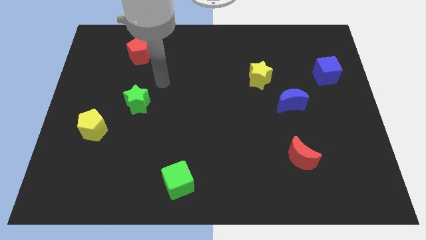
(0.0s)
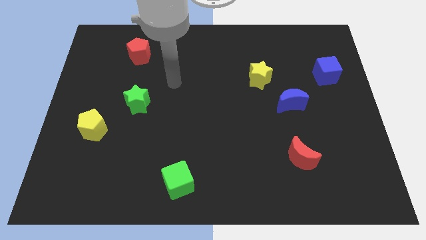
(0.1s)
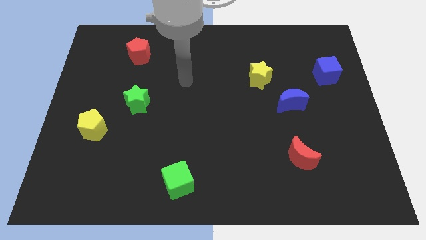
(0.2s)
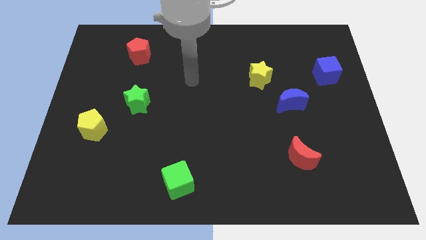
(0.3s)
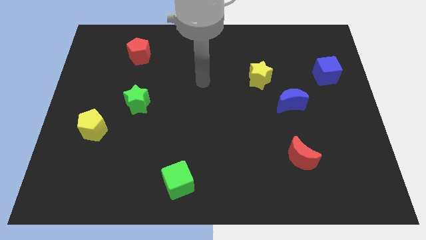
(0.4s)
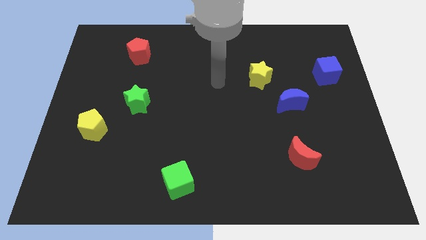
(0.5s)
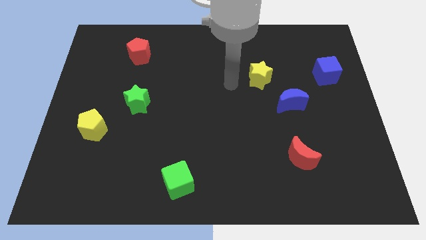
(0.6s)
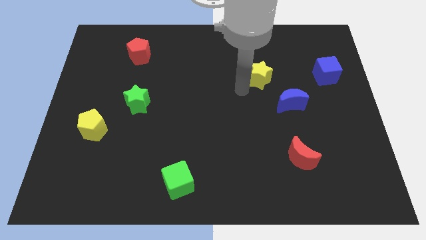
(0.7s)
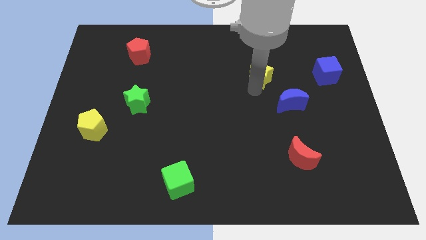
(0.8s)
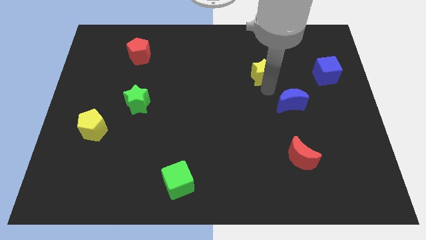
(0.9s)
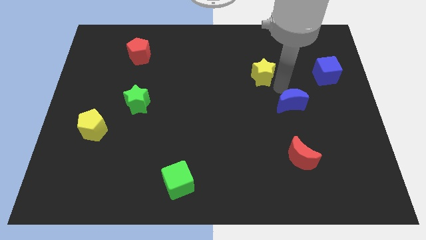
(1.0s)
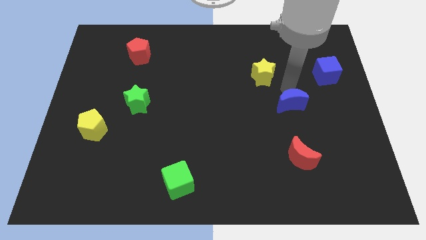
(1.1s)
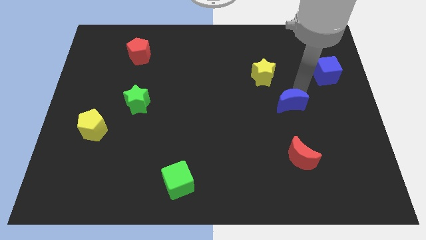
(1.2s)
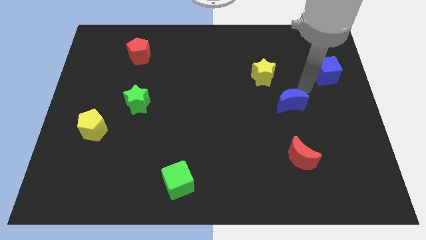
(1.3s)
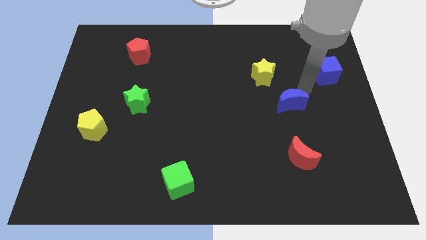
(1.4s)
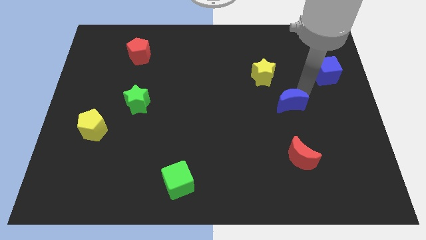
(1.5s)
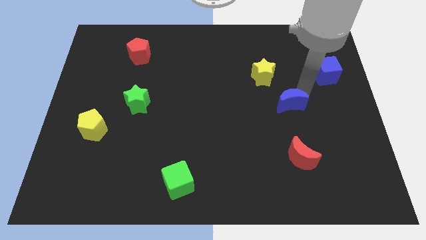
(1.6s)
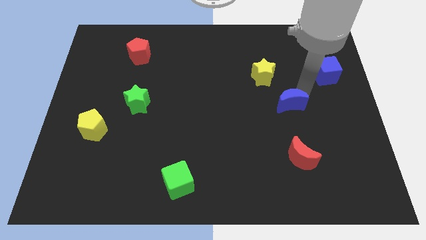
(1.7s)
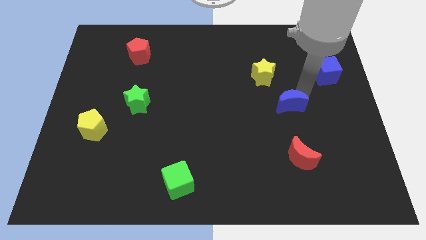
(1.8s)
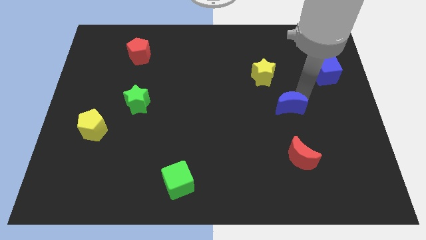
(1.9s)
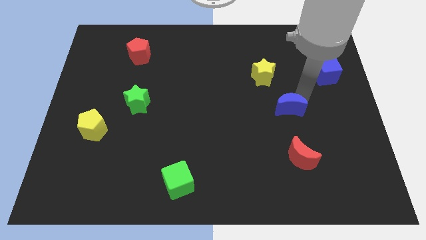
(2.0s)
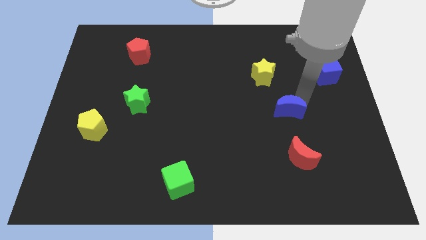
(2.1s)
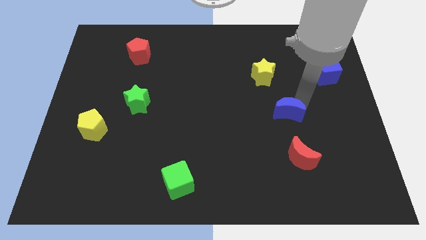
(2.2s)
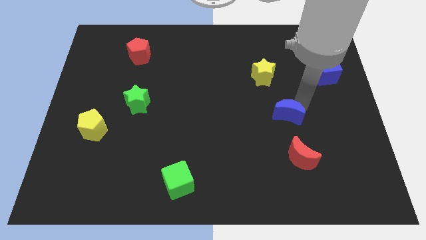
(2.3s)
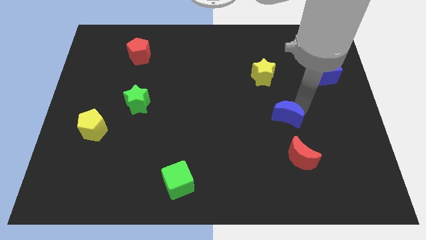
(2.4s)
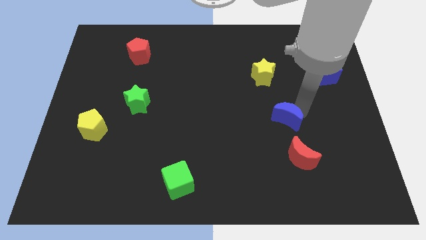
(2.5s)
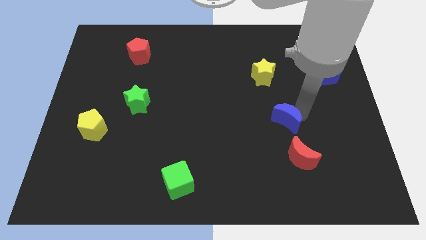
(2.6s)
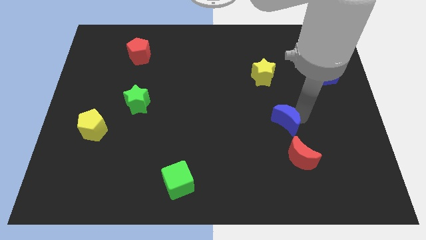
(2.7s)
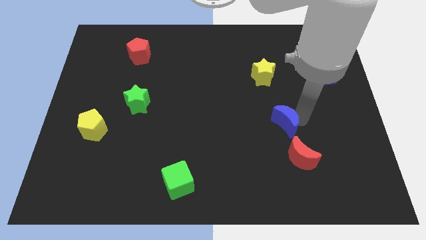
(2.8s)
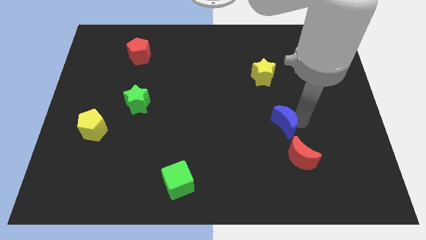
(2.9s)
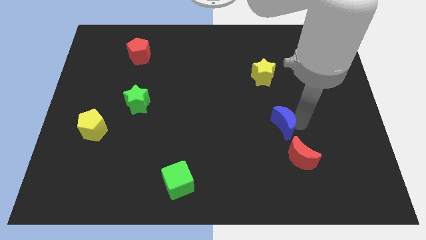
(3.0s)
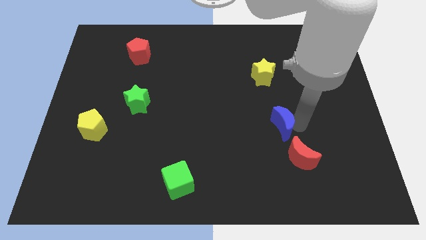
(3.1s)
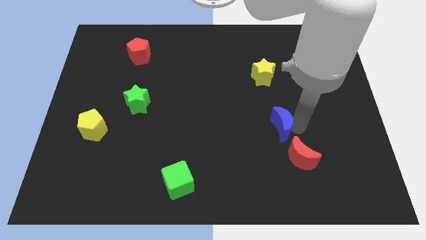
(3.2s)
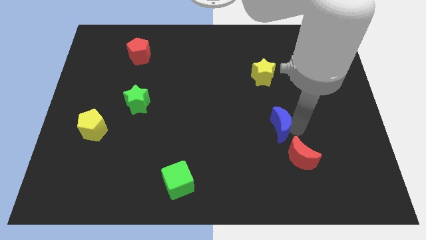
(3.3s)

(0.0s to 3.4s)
slightly push the blue moon diagonally downwards and to the left

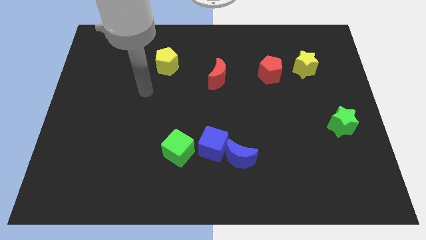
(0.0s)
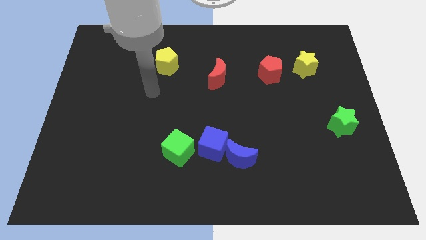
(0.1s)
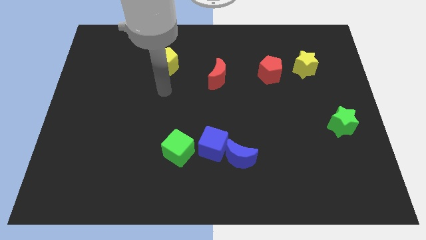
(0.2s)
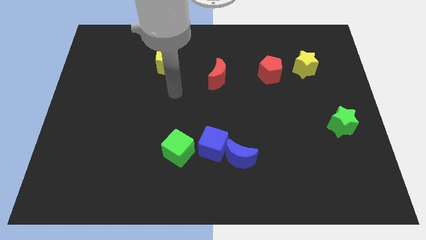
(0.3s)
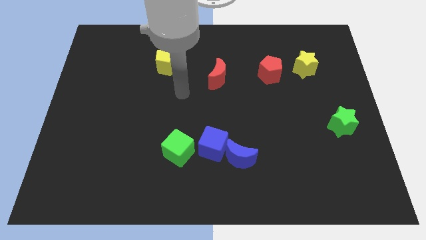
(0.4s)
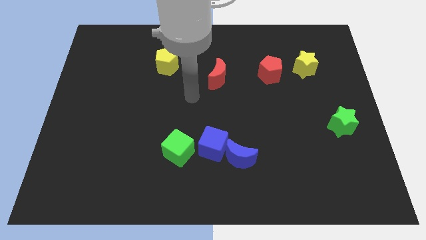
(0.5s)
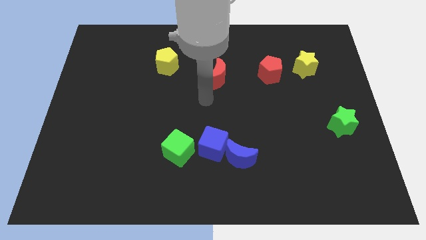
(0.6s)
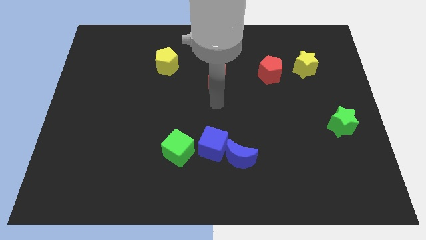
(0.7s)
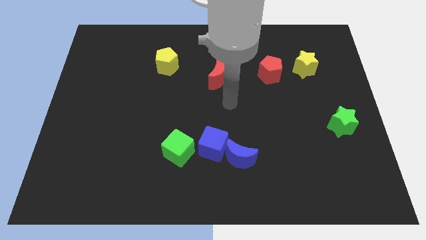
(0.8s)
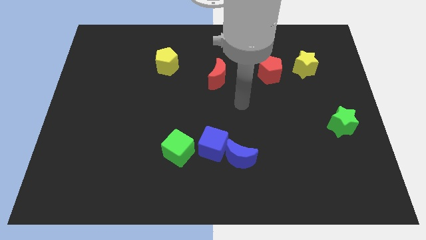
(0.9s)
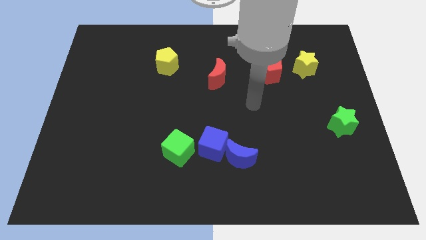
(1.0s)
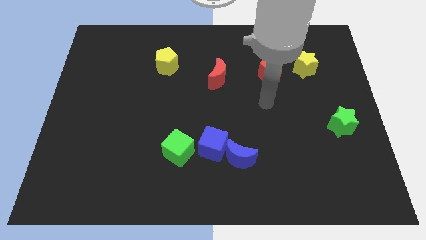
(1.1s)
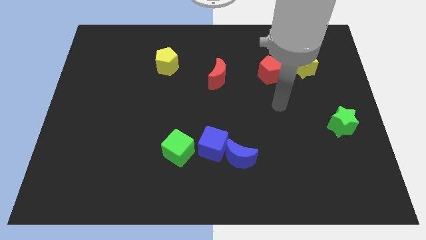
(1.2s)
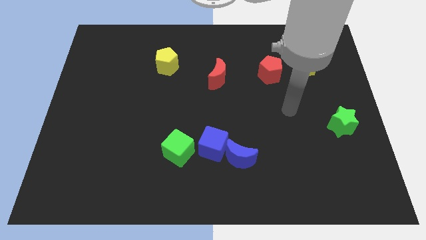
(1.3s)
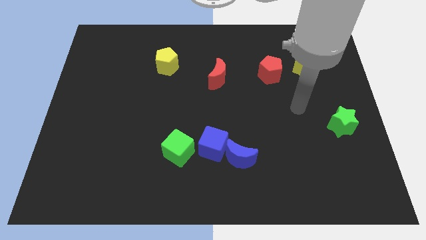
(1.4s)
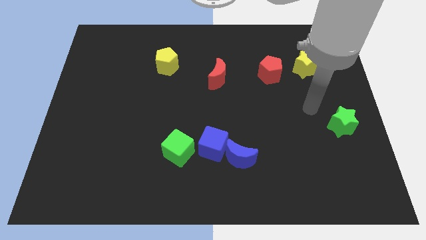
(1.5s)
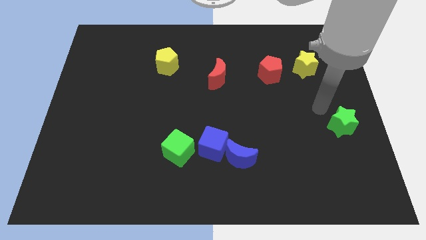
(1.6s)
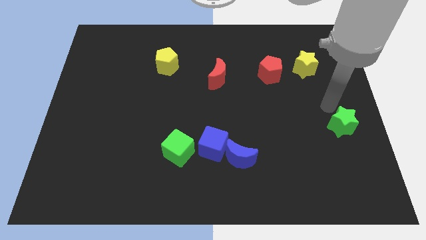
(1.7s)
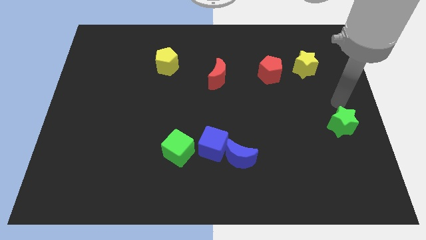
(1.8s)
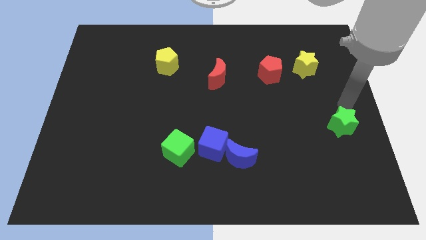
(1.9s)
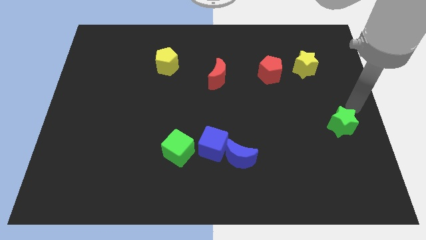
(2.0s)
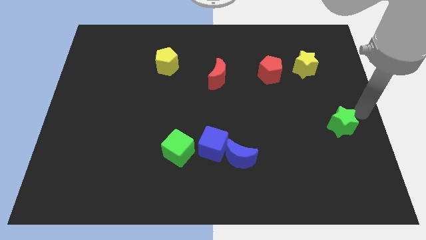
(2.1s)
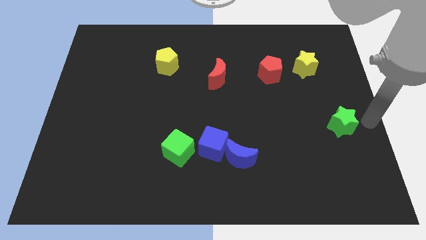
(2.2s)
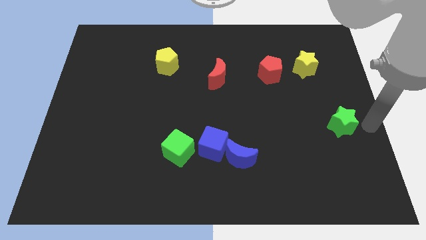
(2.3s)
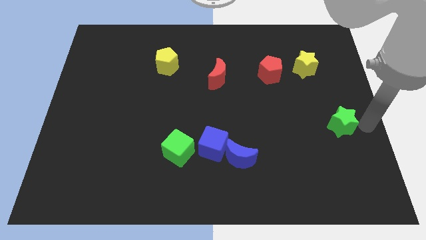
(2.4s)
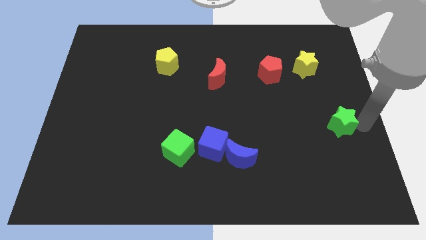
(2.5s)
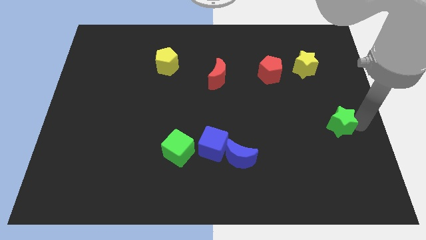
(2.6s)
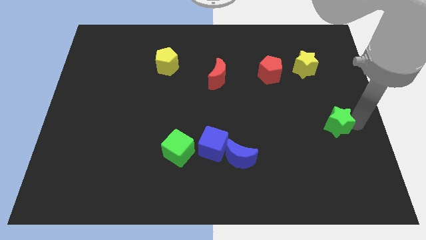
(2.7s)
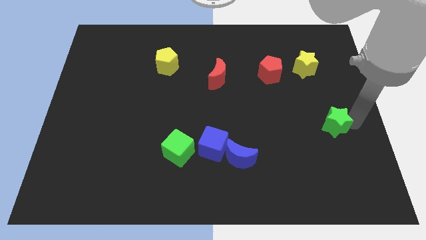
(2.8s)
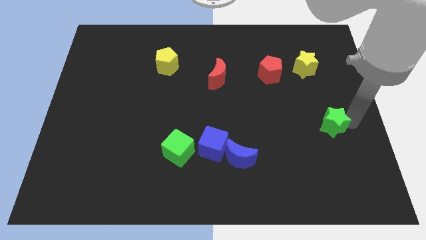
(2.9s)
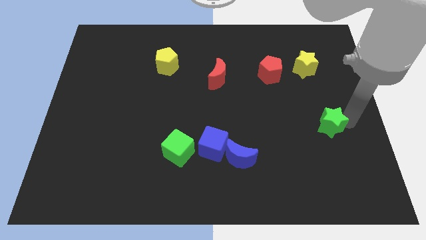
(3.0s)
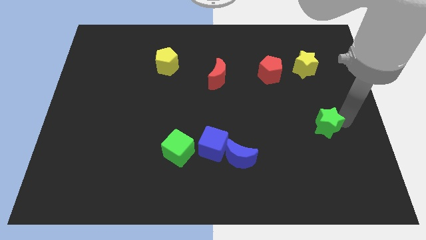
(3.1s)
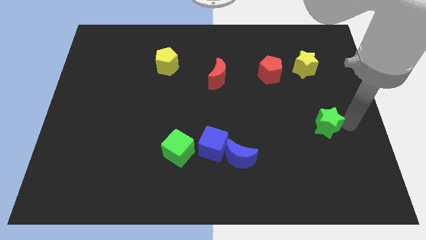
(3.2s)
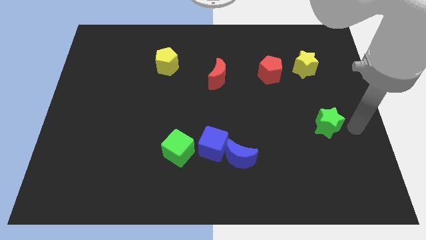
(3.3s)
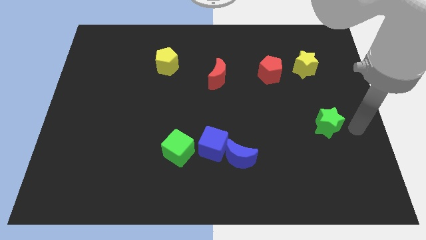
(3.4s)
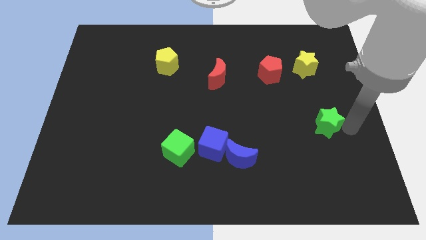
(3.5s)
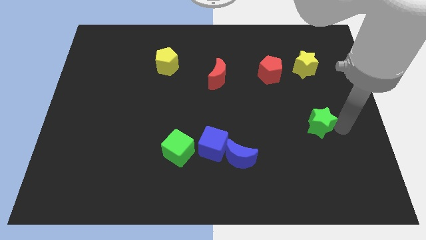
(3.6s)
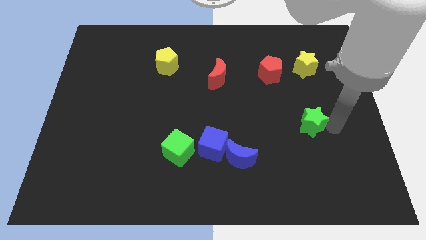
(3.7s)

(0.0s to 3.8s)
move the green star left somewhat

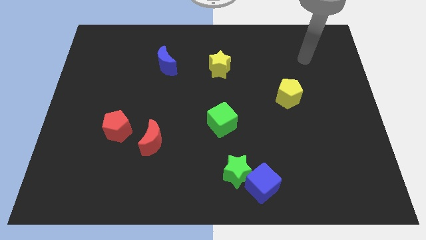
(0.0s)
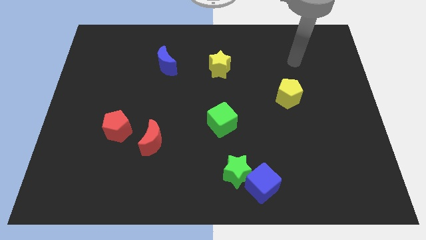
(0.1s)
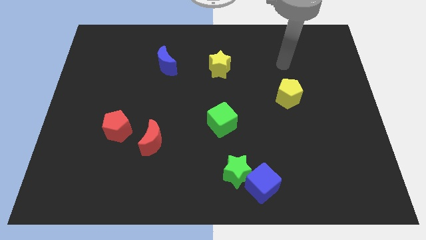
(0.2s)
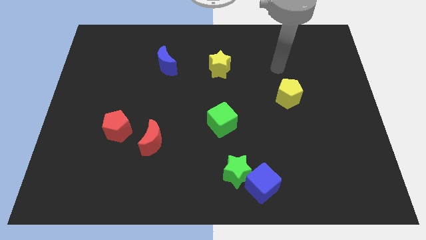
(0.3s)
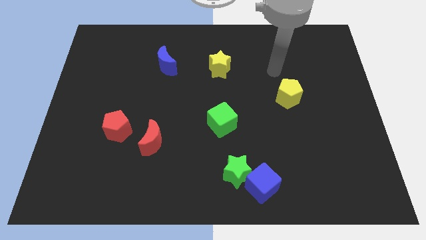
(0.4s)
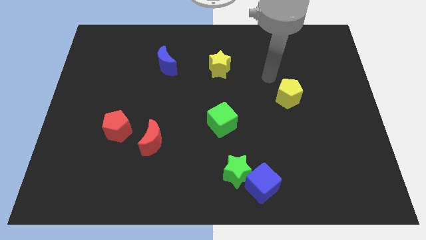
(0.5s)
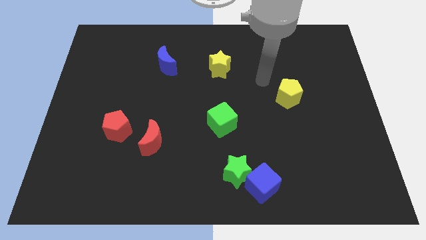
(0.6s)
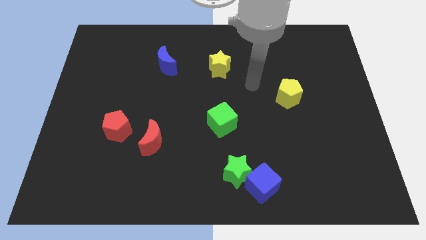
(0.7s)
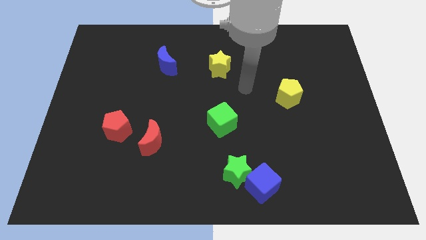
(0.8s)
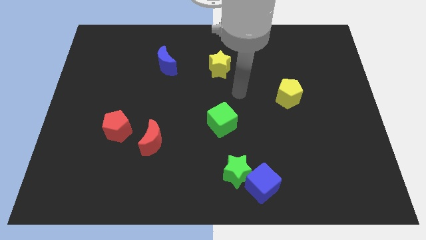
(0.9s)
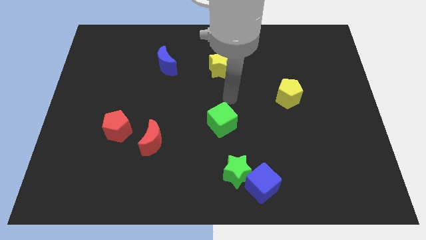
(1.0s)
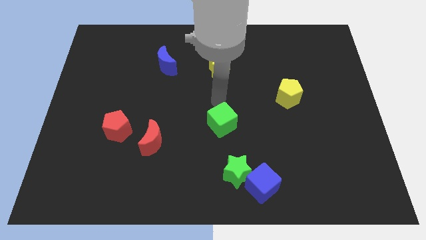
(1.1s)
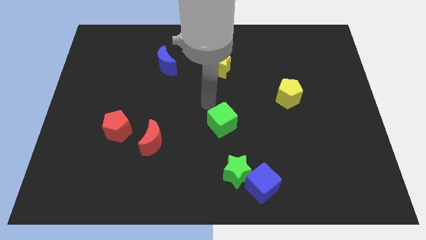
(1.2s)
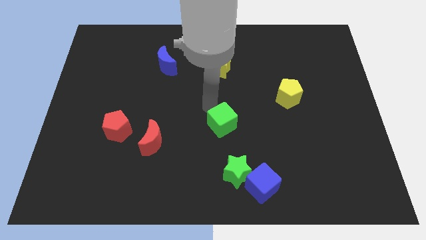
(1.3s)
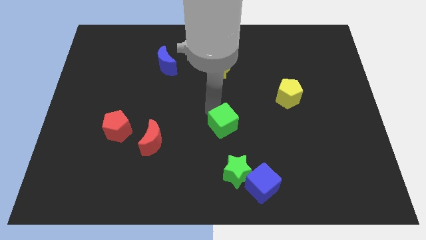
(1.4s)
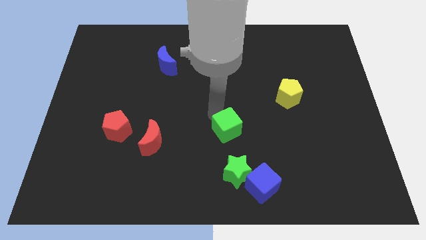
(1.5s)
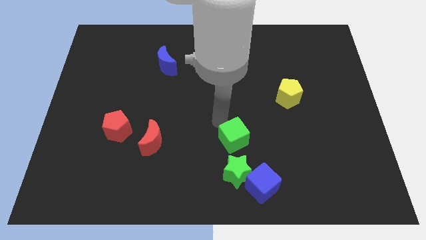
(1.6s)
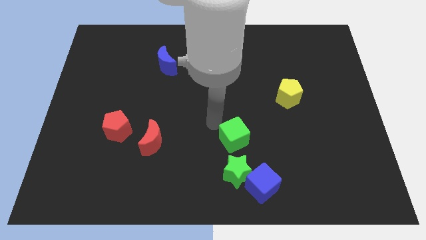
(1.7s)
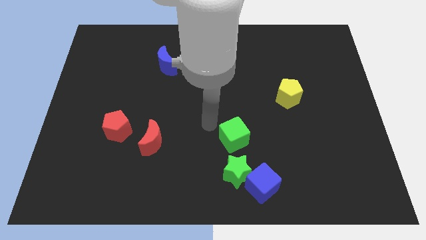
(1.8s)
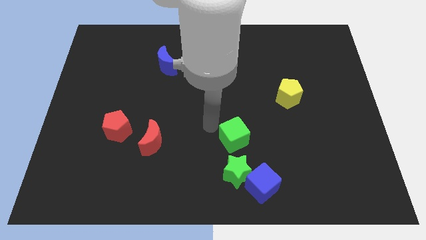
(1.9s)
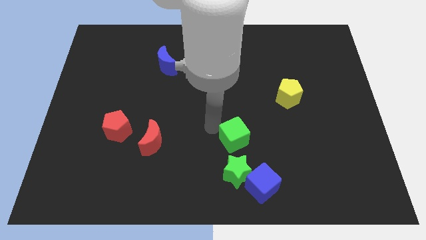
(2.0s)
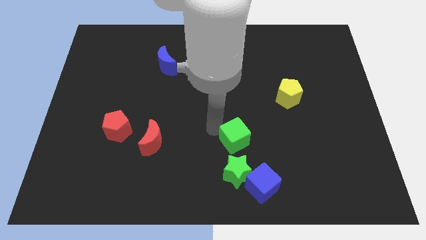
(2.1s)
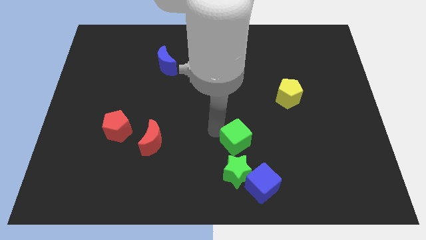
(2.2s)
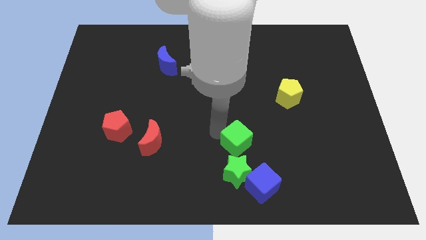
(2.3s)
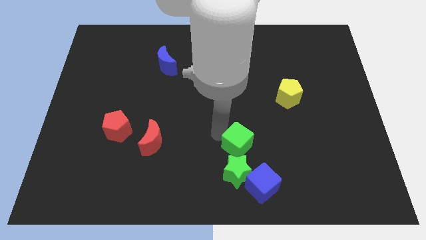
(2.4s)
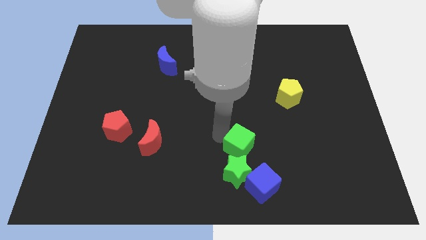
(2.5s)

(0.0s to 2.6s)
push the green cube downwards and right diagonally a little bit
